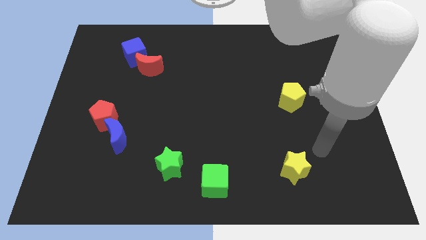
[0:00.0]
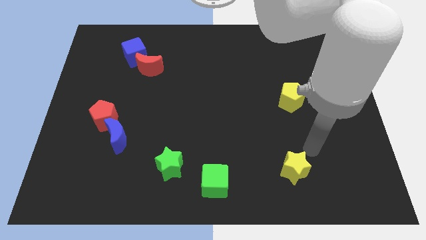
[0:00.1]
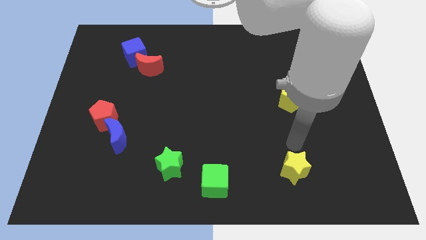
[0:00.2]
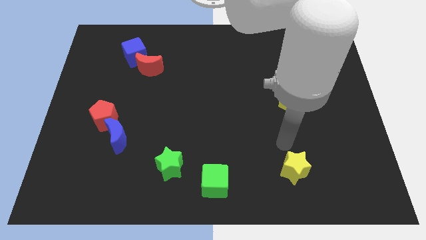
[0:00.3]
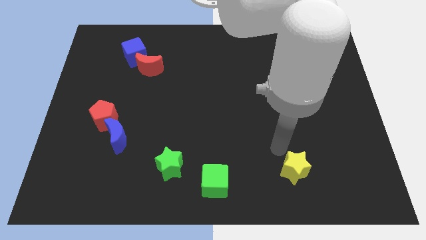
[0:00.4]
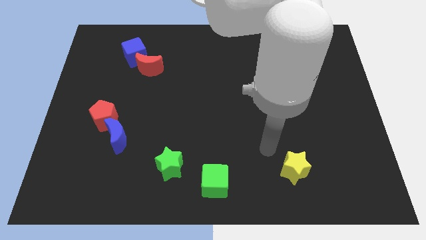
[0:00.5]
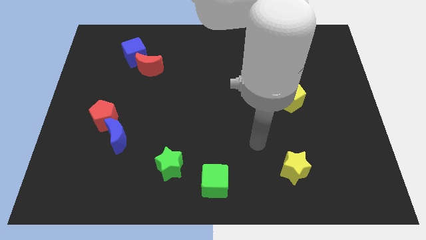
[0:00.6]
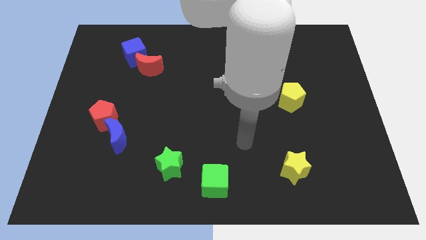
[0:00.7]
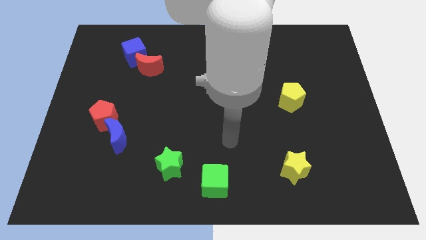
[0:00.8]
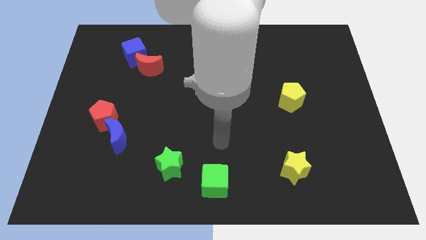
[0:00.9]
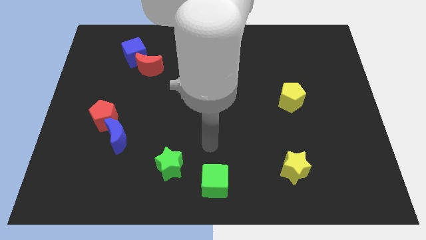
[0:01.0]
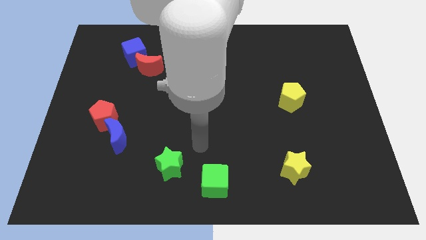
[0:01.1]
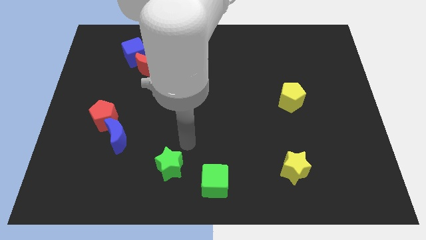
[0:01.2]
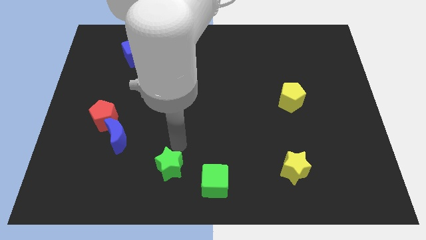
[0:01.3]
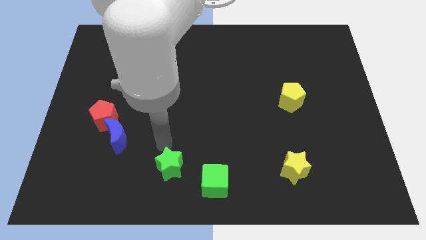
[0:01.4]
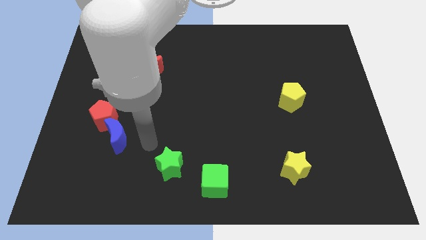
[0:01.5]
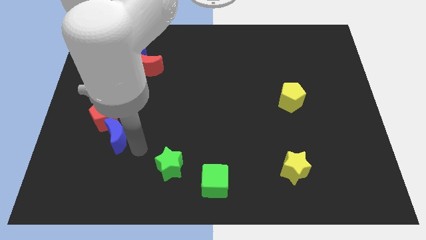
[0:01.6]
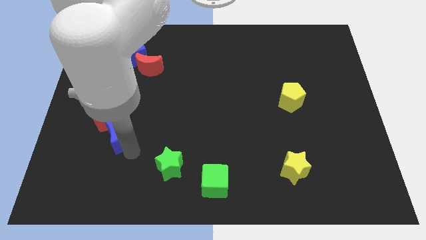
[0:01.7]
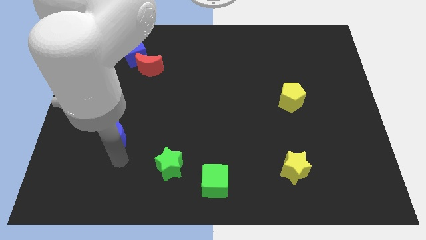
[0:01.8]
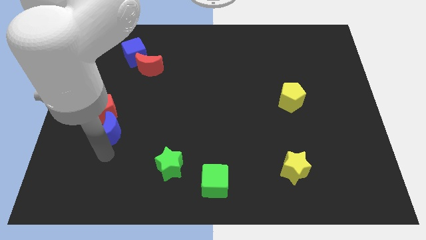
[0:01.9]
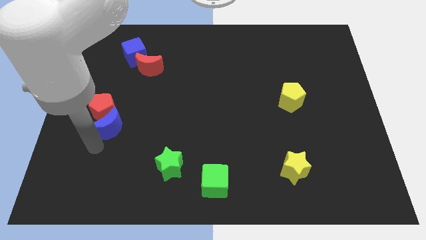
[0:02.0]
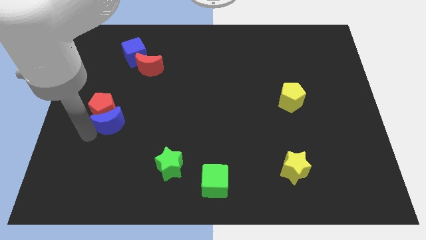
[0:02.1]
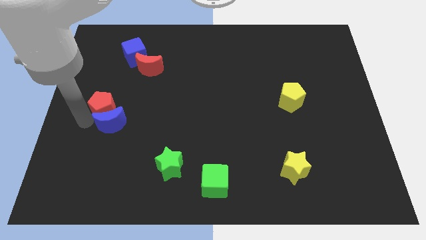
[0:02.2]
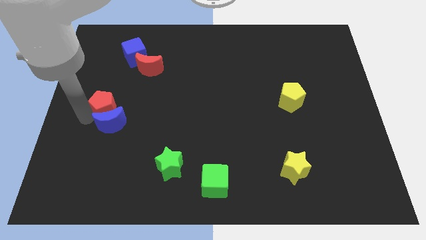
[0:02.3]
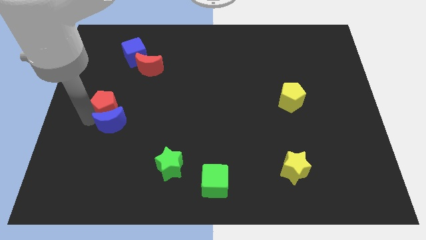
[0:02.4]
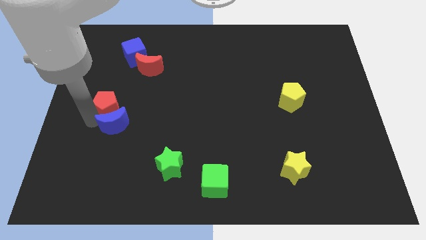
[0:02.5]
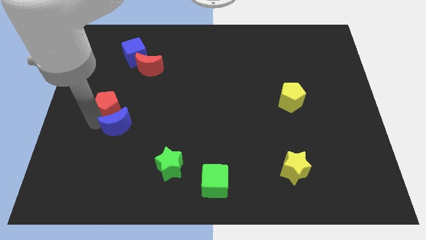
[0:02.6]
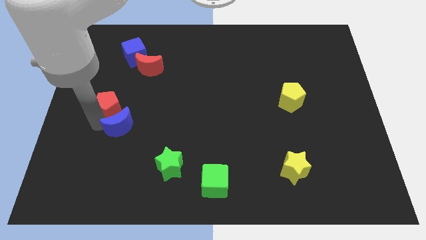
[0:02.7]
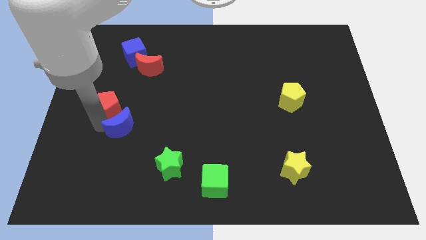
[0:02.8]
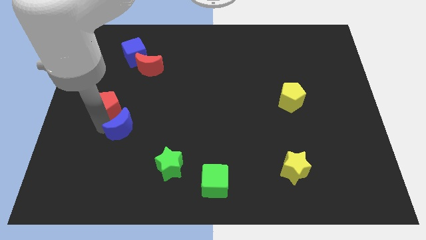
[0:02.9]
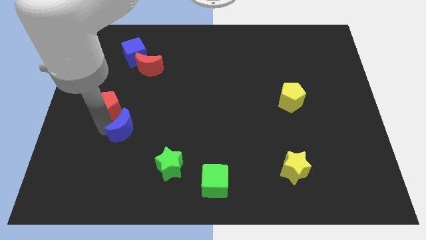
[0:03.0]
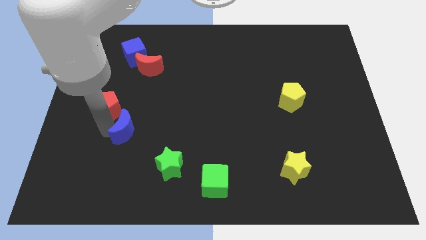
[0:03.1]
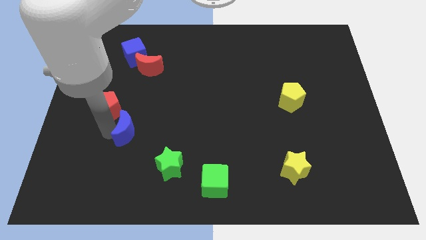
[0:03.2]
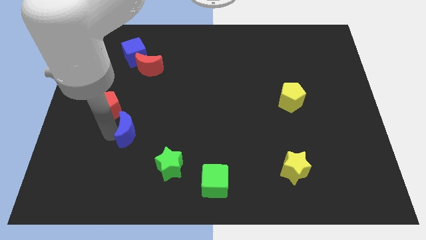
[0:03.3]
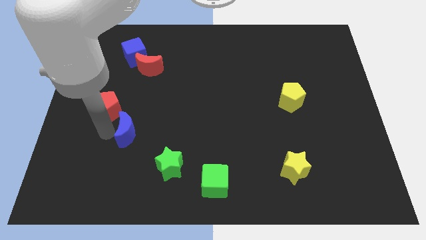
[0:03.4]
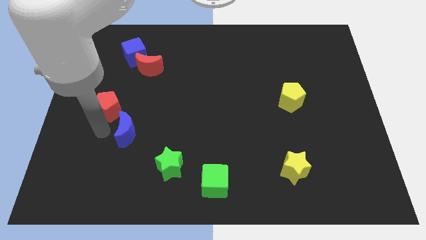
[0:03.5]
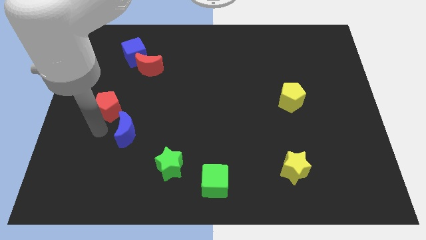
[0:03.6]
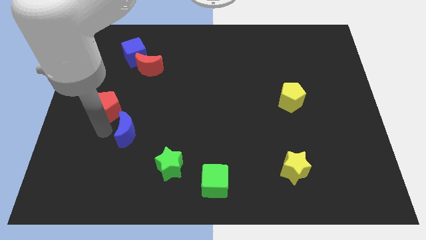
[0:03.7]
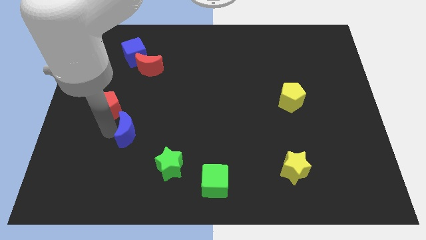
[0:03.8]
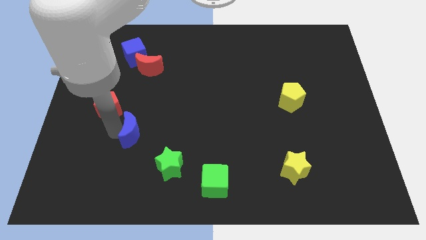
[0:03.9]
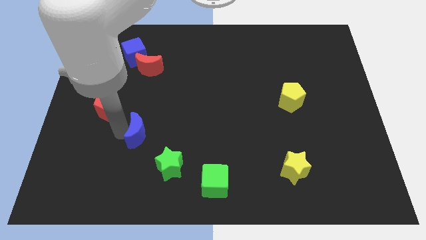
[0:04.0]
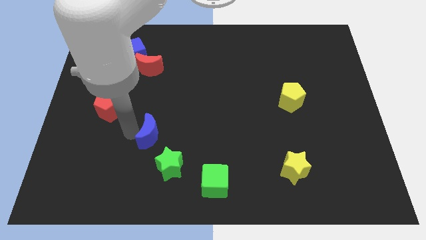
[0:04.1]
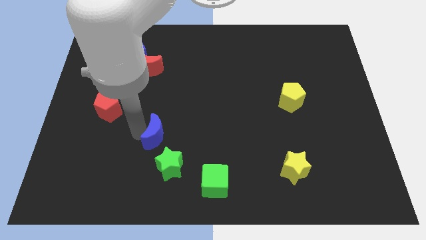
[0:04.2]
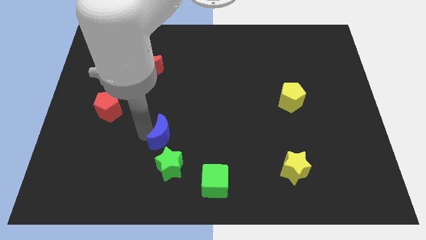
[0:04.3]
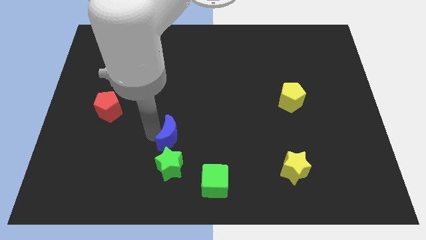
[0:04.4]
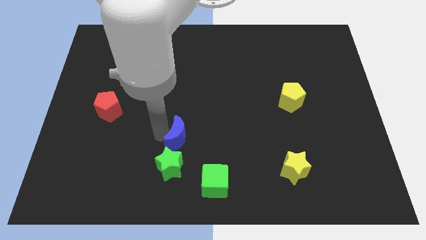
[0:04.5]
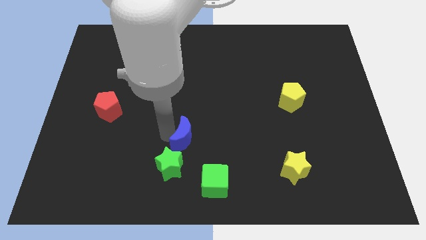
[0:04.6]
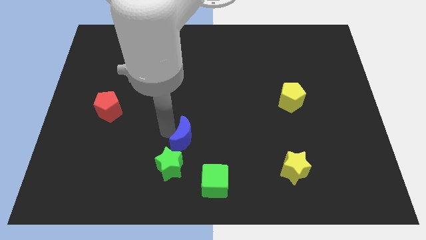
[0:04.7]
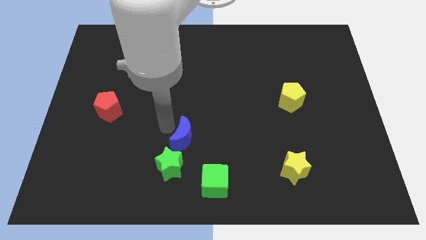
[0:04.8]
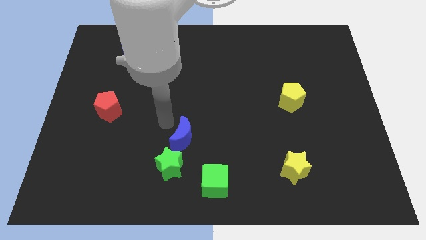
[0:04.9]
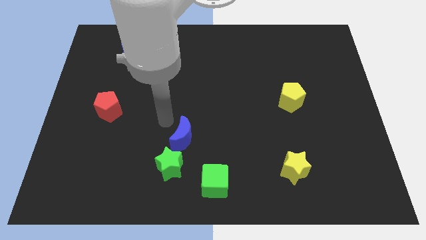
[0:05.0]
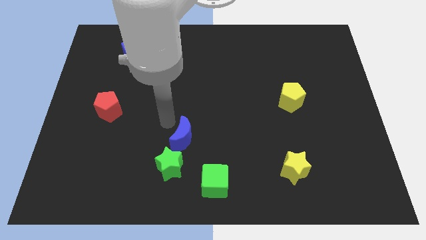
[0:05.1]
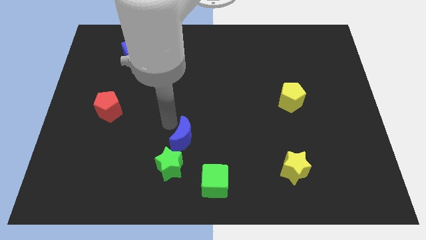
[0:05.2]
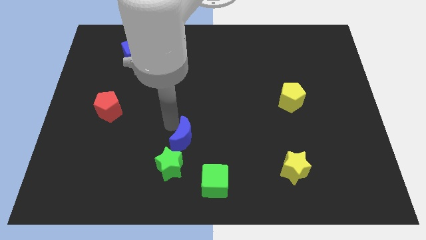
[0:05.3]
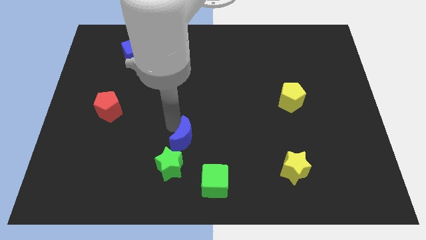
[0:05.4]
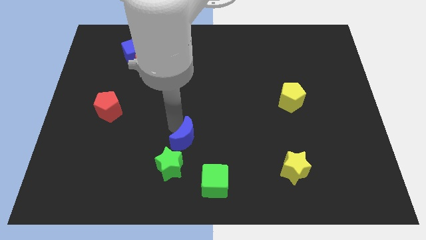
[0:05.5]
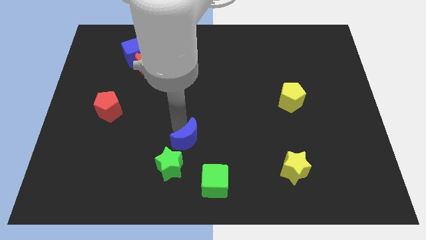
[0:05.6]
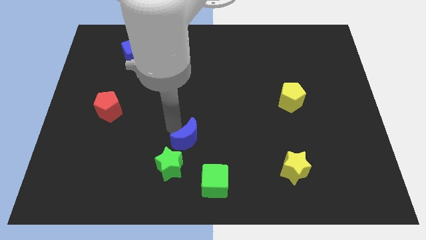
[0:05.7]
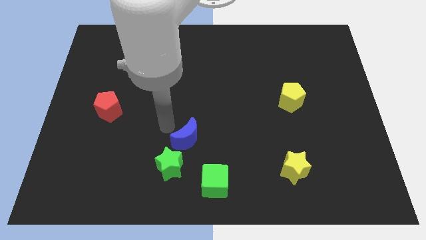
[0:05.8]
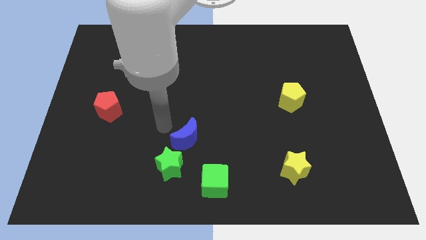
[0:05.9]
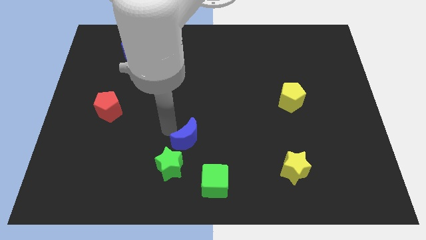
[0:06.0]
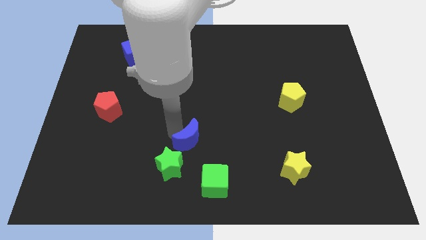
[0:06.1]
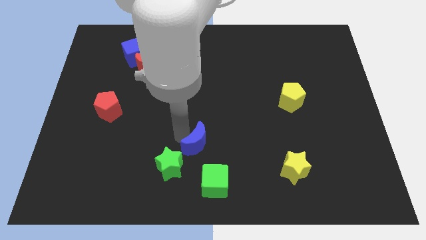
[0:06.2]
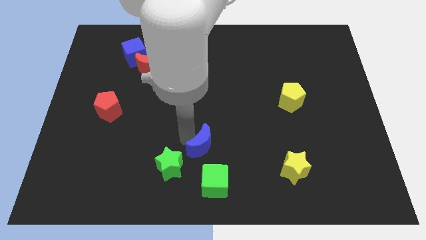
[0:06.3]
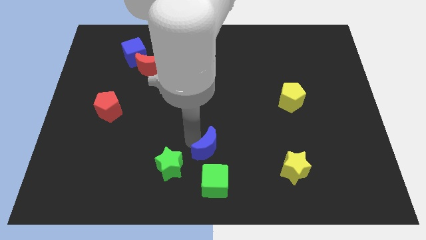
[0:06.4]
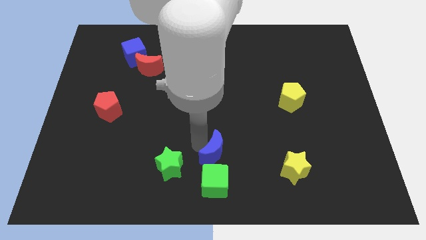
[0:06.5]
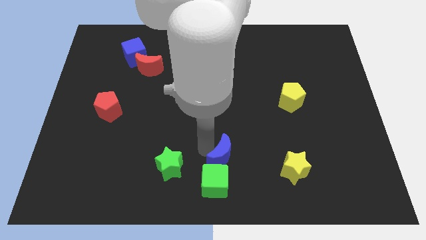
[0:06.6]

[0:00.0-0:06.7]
move the blue moon to the top right side of the green cube

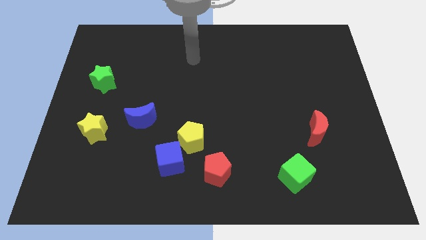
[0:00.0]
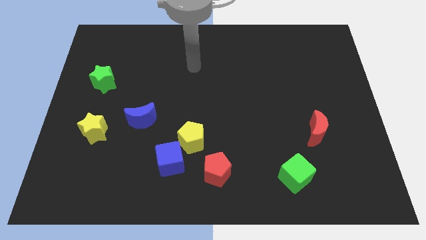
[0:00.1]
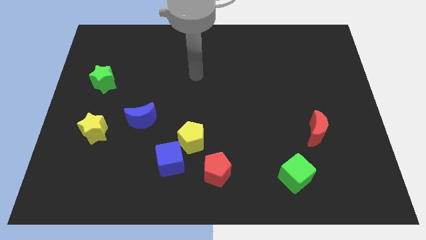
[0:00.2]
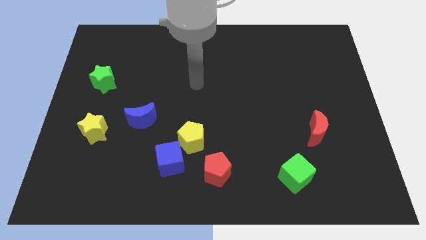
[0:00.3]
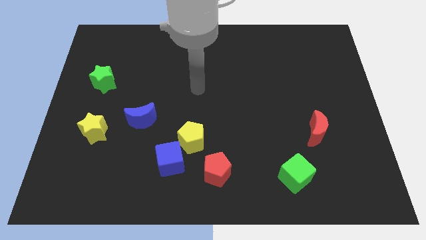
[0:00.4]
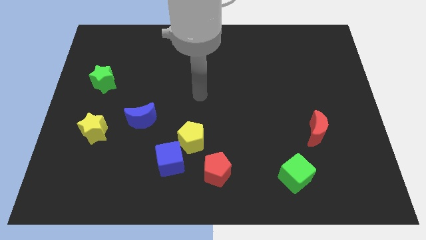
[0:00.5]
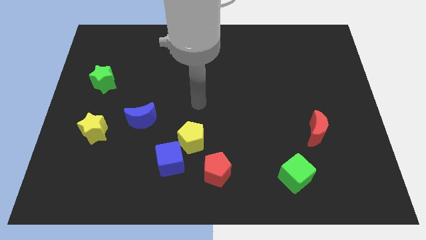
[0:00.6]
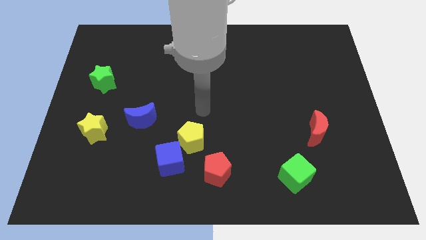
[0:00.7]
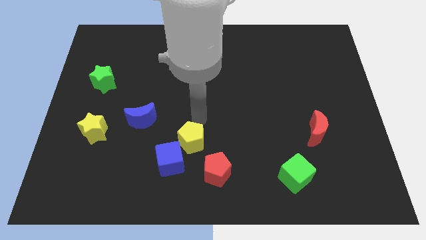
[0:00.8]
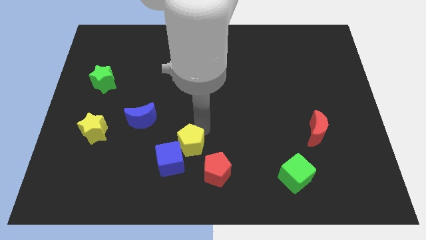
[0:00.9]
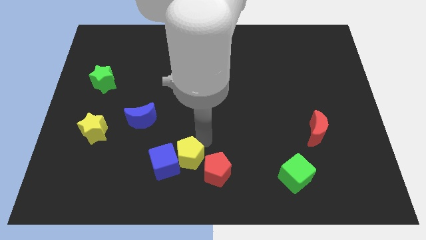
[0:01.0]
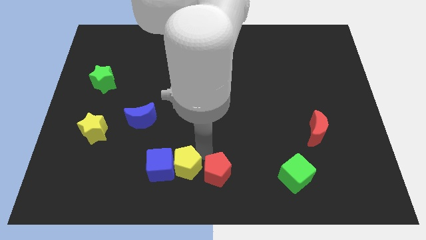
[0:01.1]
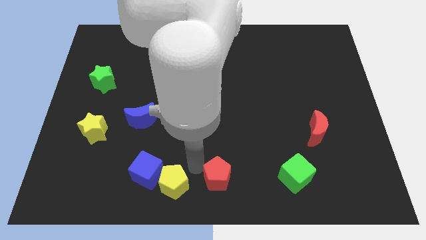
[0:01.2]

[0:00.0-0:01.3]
put the blue cube to the bottom of the blue moon
